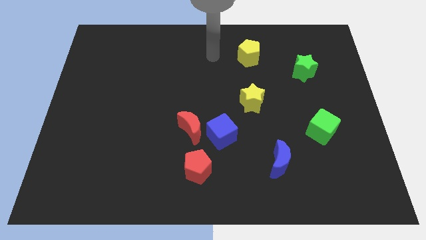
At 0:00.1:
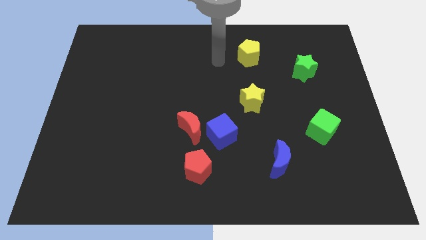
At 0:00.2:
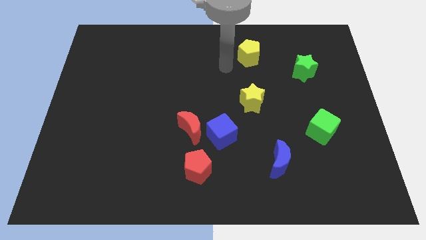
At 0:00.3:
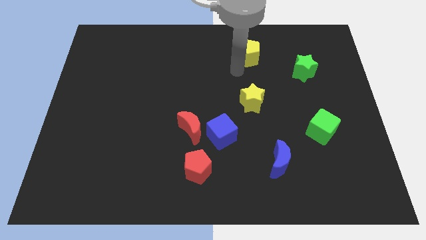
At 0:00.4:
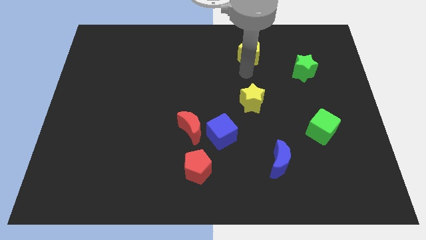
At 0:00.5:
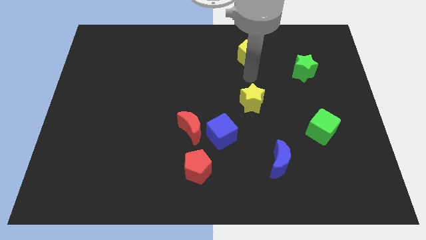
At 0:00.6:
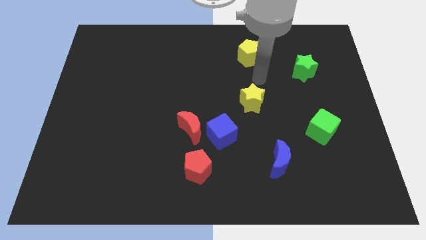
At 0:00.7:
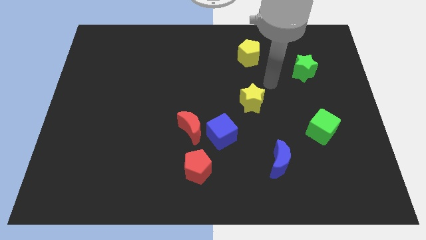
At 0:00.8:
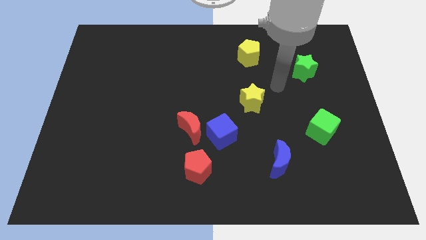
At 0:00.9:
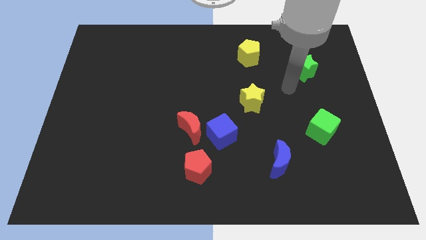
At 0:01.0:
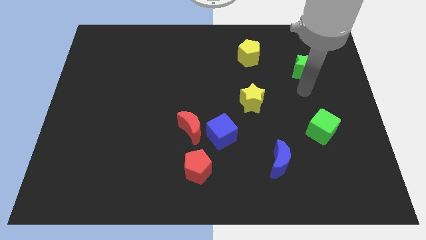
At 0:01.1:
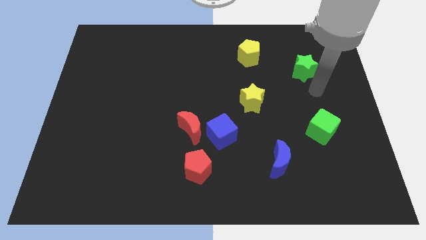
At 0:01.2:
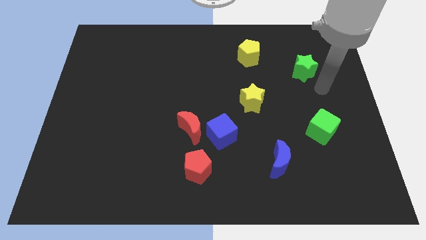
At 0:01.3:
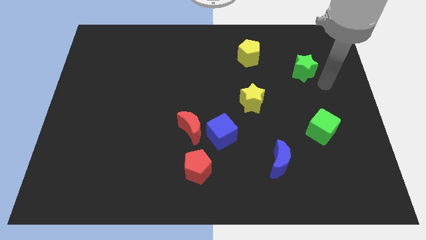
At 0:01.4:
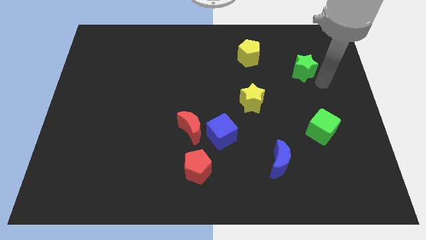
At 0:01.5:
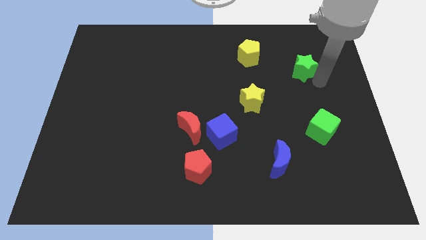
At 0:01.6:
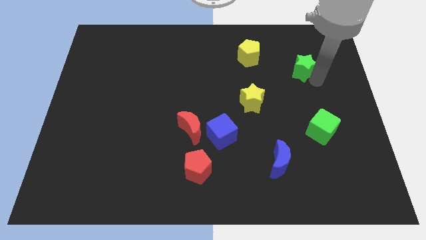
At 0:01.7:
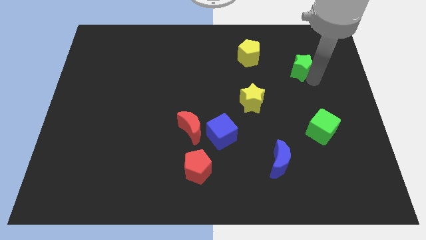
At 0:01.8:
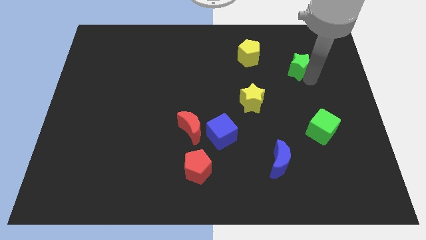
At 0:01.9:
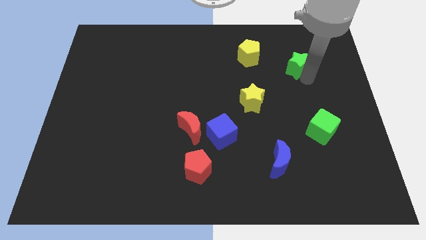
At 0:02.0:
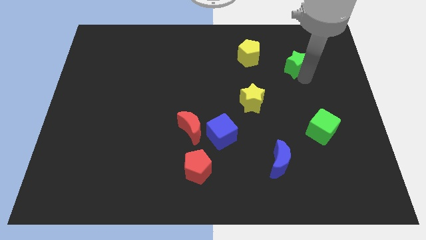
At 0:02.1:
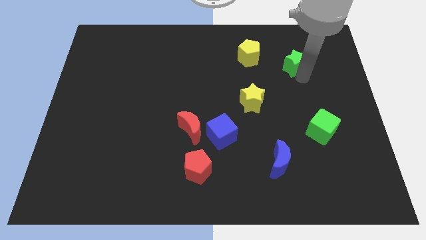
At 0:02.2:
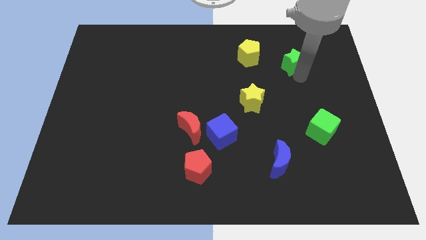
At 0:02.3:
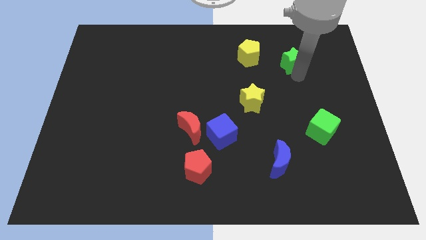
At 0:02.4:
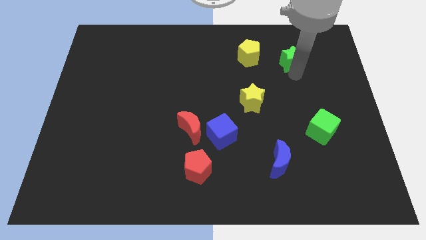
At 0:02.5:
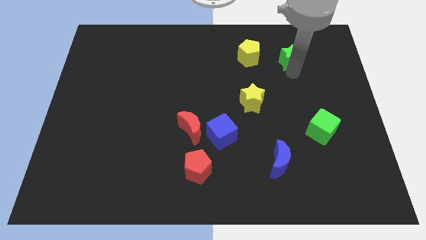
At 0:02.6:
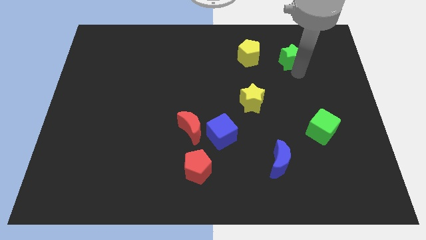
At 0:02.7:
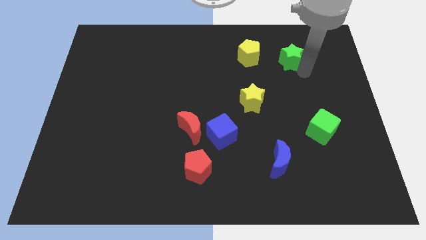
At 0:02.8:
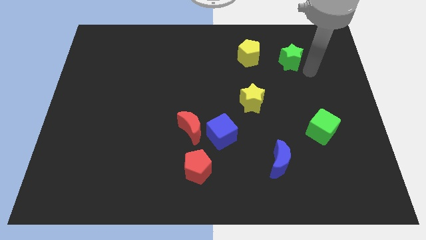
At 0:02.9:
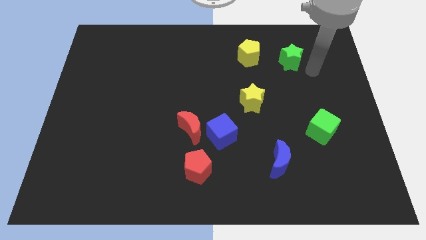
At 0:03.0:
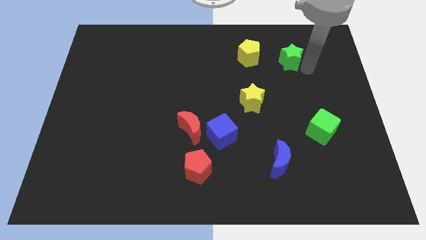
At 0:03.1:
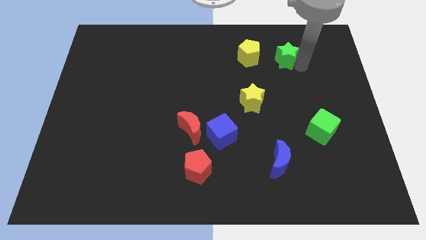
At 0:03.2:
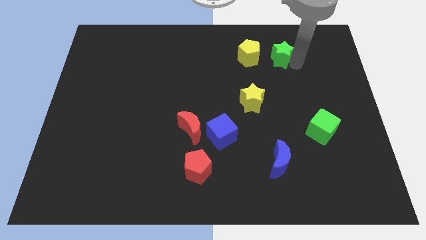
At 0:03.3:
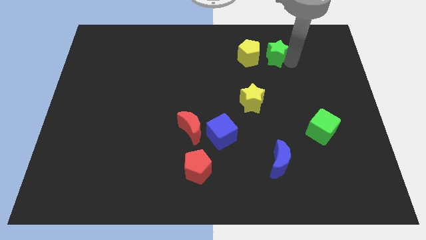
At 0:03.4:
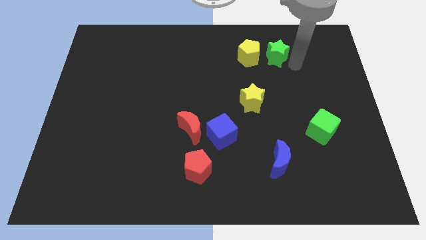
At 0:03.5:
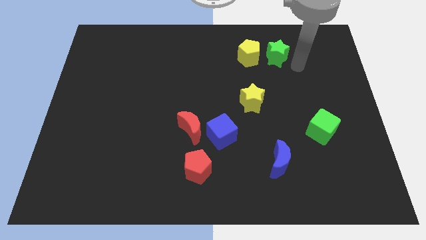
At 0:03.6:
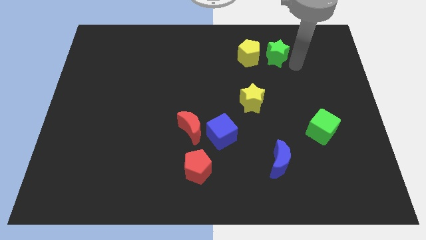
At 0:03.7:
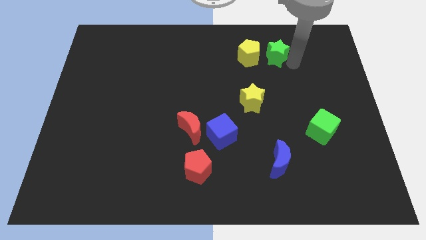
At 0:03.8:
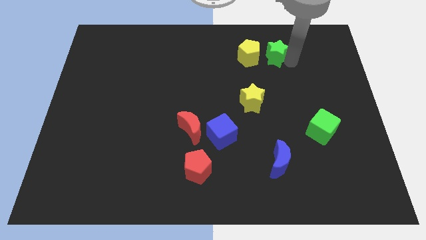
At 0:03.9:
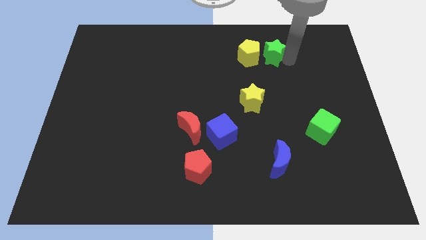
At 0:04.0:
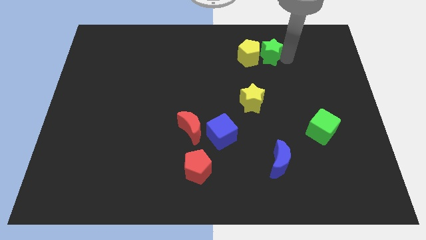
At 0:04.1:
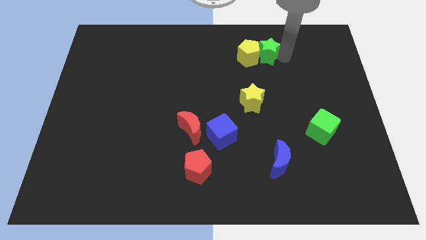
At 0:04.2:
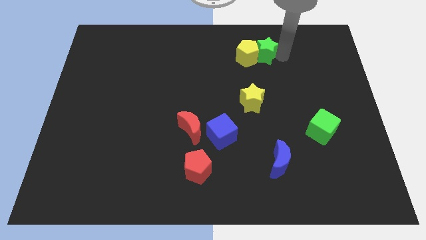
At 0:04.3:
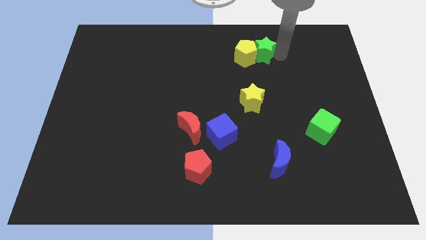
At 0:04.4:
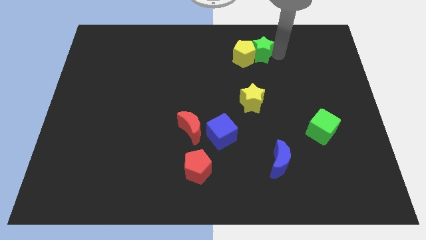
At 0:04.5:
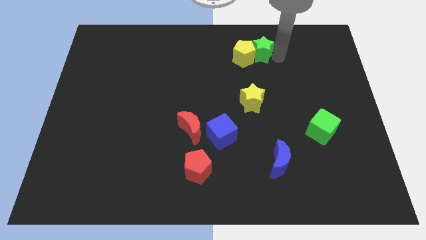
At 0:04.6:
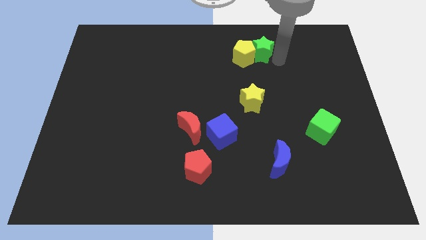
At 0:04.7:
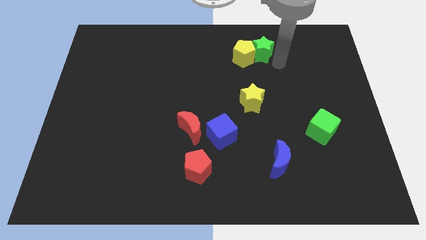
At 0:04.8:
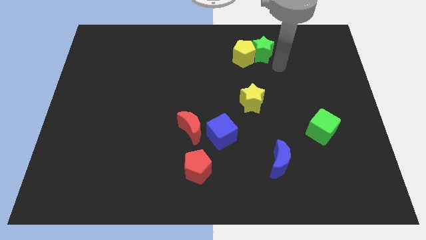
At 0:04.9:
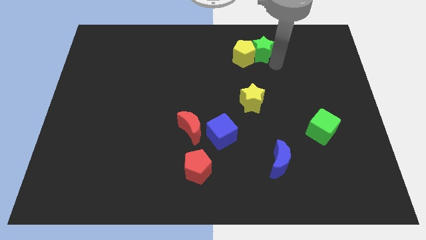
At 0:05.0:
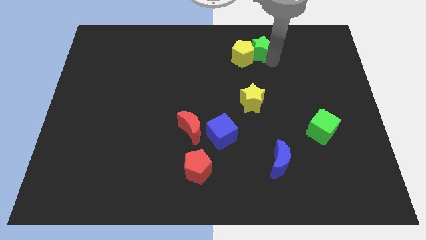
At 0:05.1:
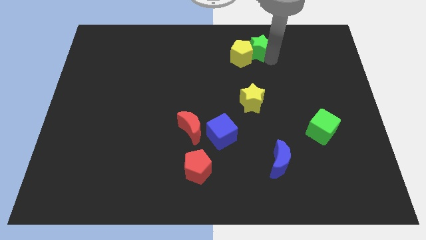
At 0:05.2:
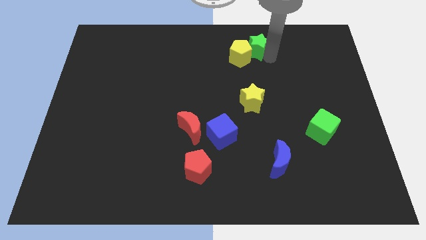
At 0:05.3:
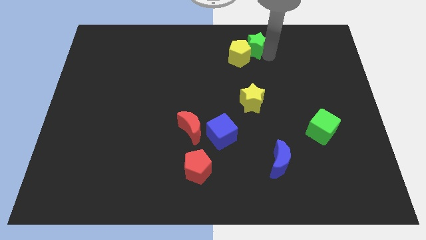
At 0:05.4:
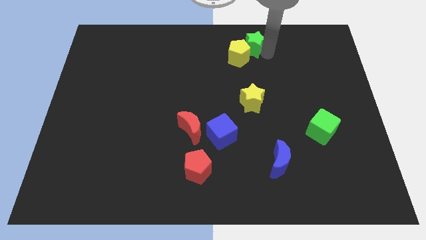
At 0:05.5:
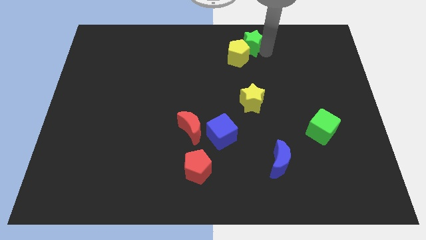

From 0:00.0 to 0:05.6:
slide the green star to the towards your base
